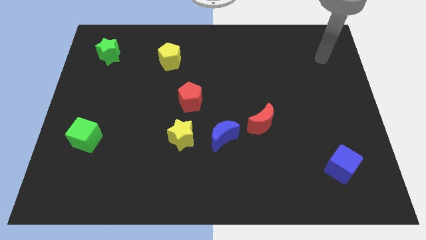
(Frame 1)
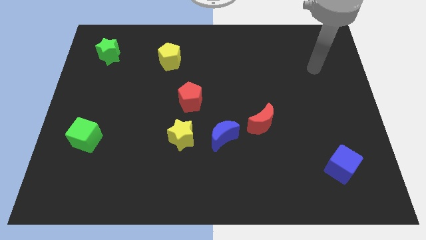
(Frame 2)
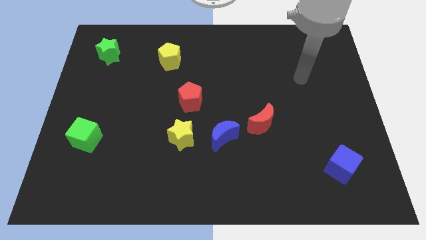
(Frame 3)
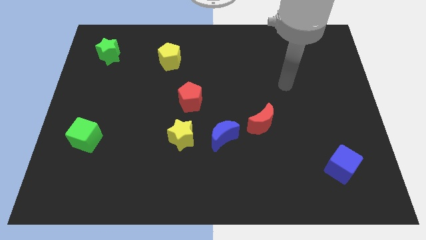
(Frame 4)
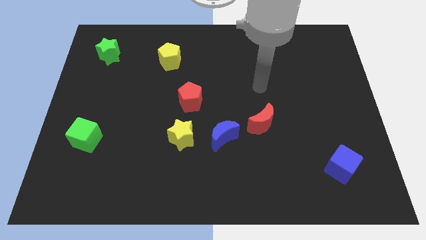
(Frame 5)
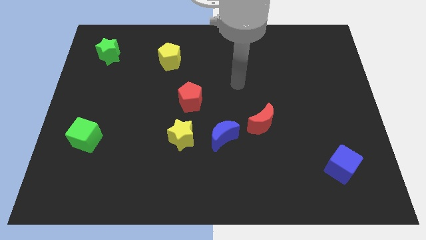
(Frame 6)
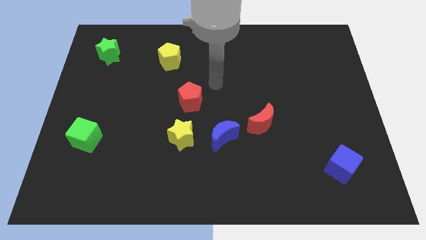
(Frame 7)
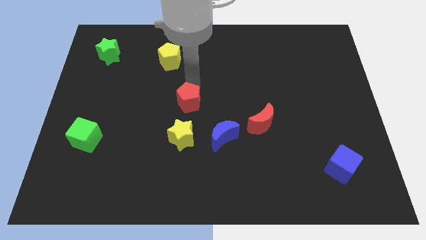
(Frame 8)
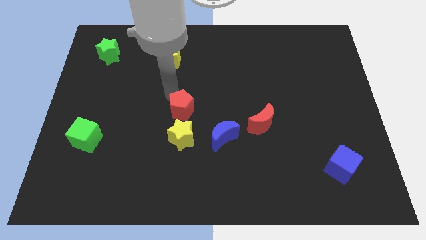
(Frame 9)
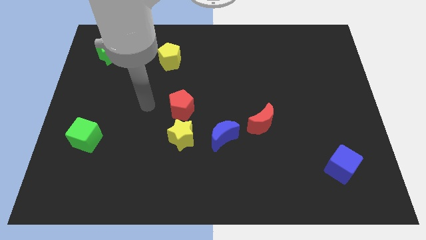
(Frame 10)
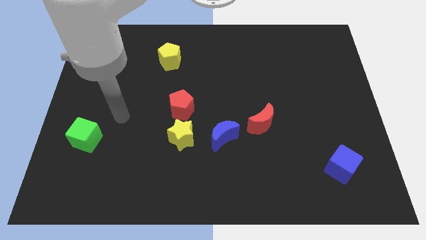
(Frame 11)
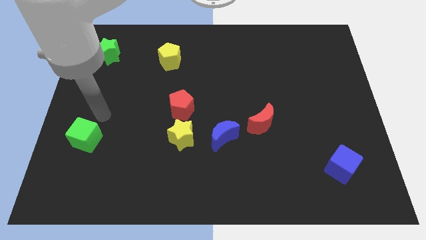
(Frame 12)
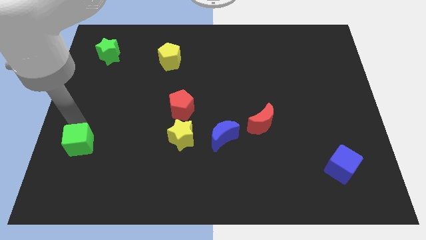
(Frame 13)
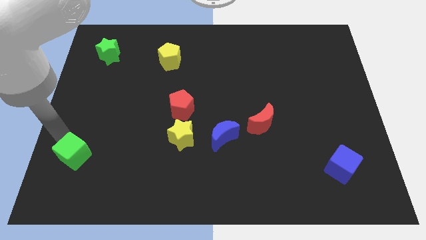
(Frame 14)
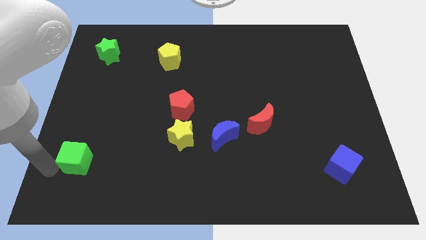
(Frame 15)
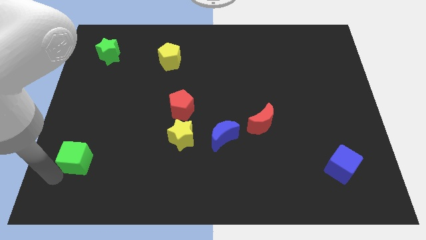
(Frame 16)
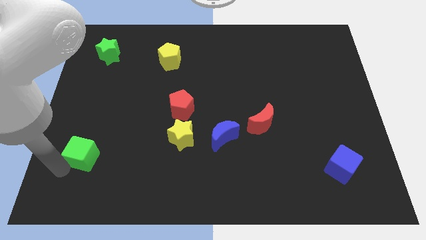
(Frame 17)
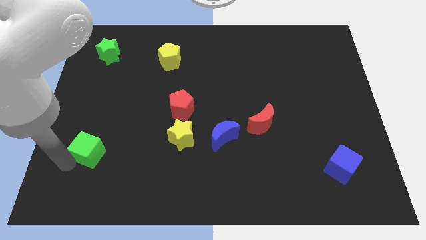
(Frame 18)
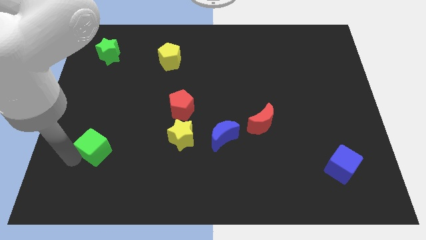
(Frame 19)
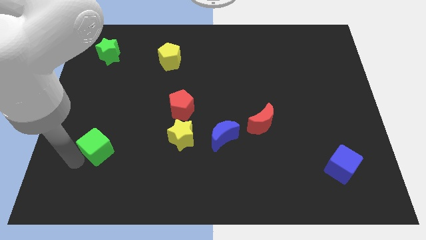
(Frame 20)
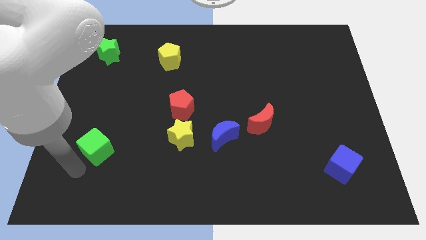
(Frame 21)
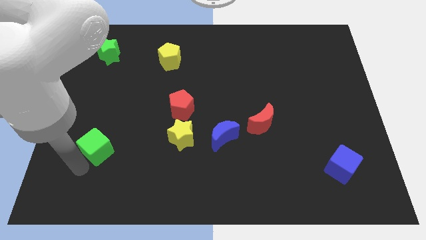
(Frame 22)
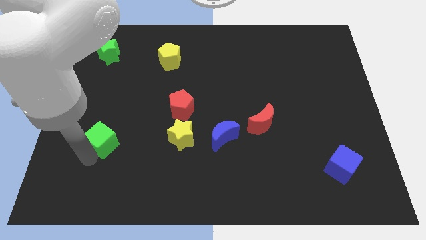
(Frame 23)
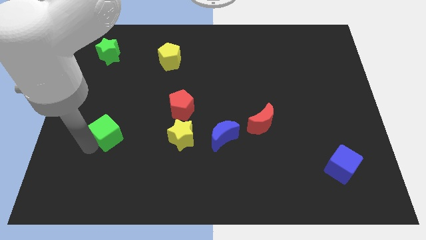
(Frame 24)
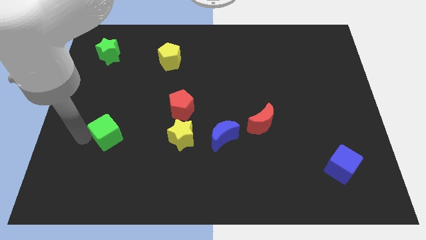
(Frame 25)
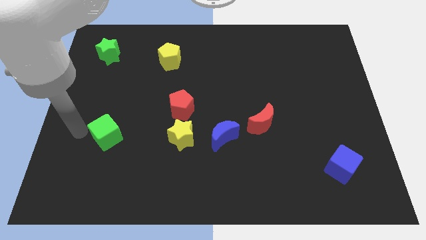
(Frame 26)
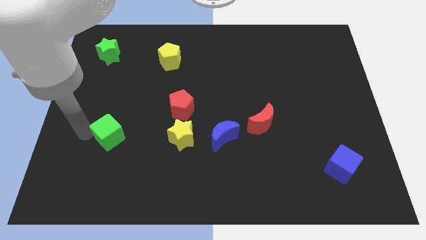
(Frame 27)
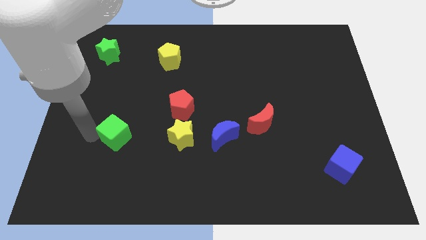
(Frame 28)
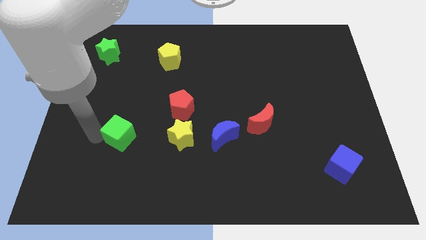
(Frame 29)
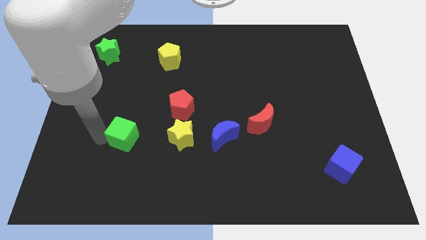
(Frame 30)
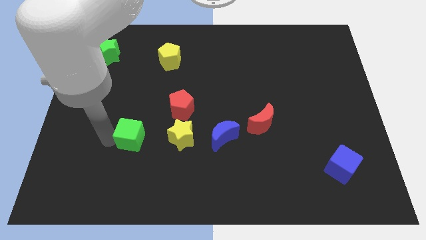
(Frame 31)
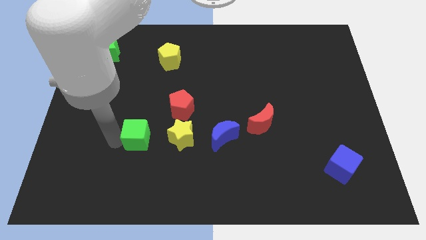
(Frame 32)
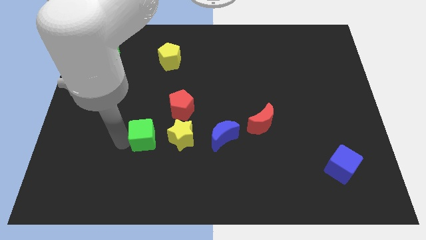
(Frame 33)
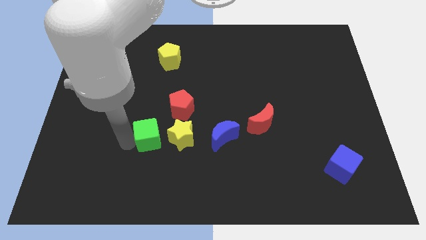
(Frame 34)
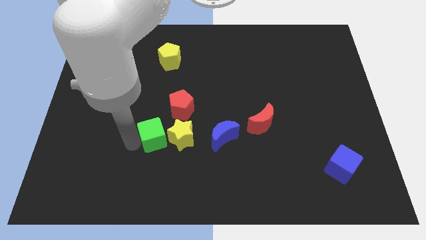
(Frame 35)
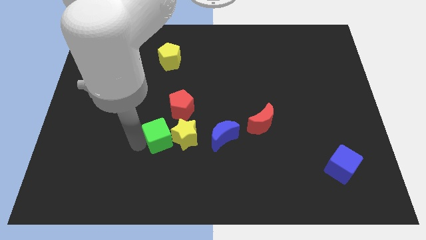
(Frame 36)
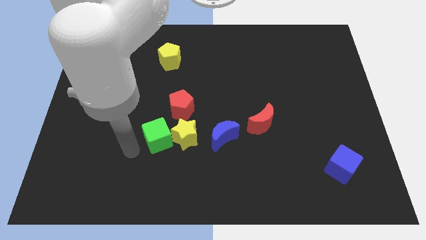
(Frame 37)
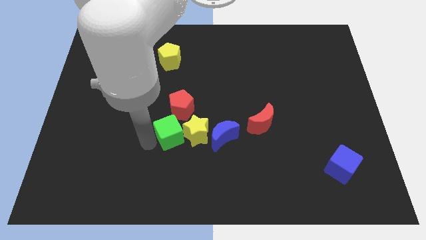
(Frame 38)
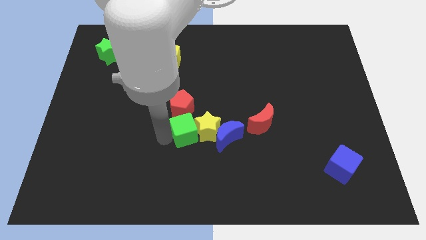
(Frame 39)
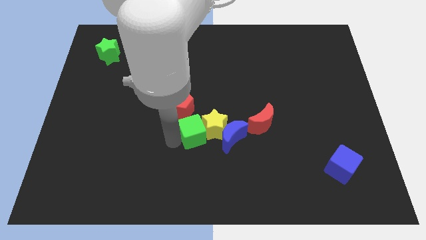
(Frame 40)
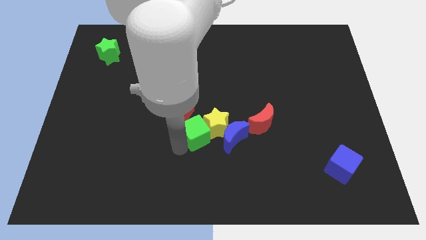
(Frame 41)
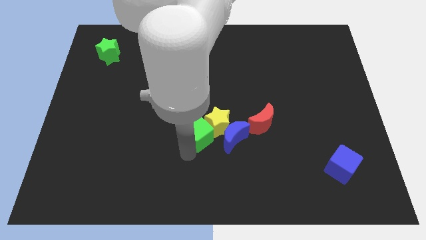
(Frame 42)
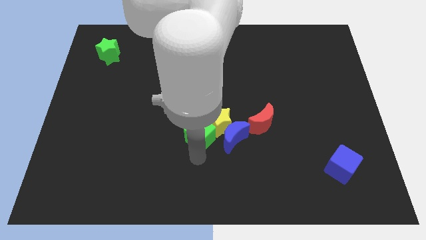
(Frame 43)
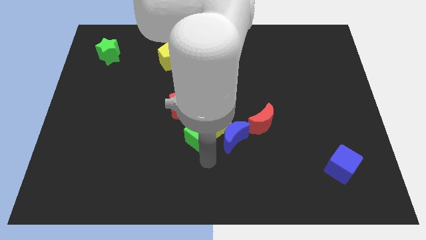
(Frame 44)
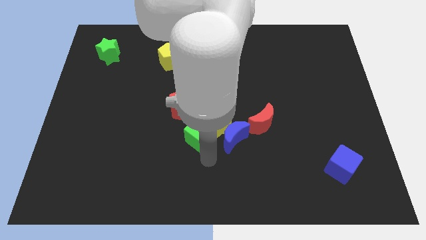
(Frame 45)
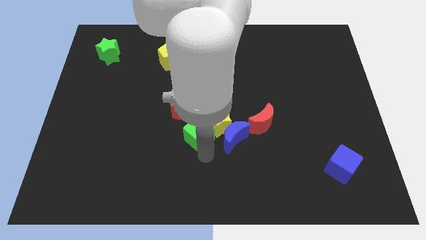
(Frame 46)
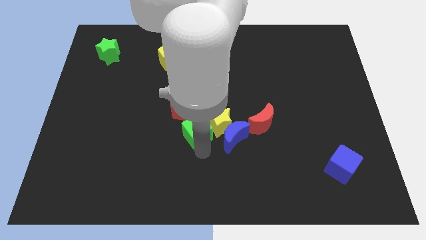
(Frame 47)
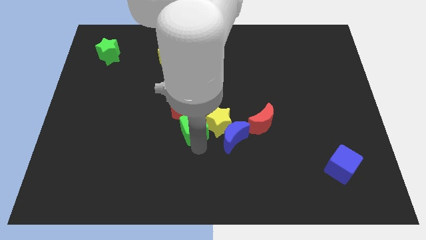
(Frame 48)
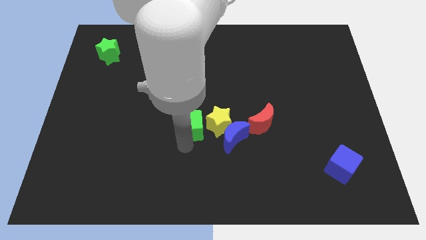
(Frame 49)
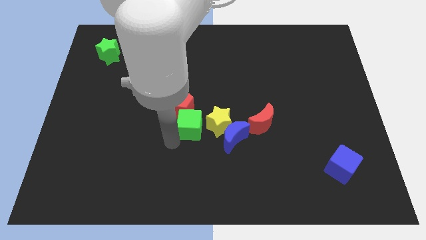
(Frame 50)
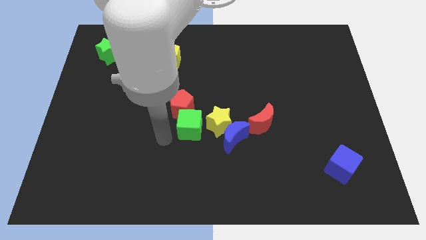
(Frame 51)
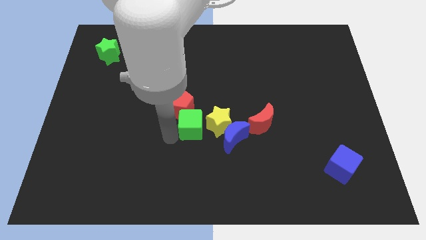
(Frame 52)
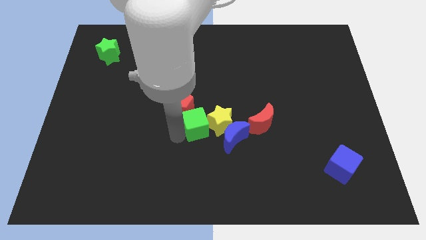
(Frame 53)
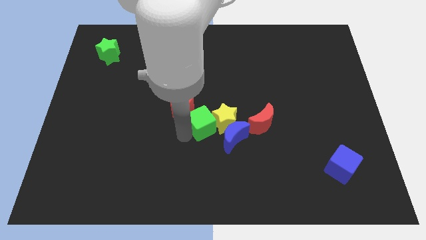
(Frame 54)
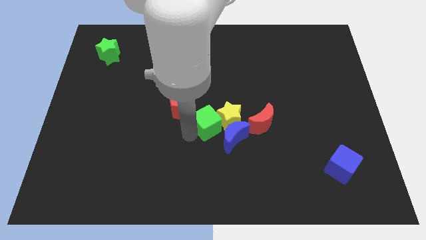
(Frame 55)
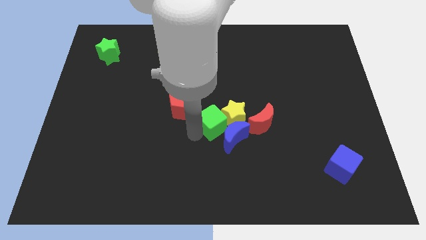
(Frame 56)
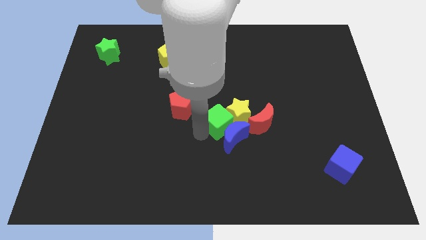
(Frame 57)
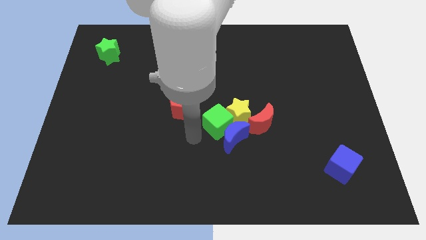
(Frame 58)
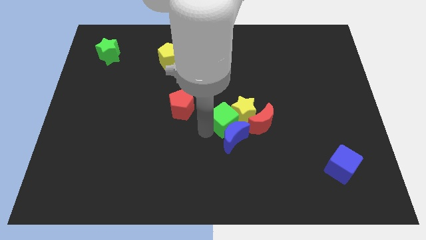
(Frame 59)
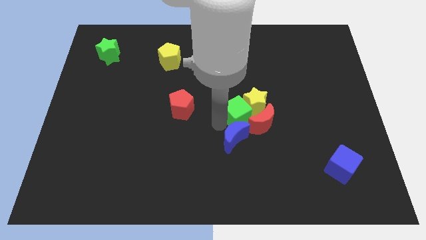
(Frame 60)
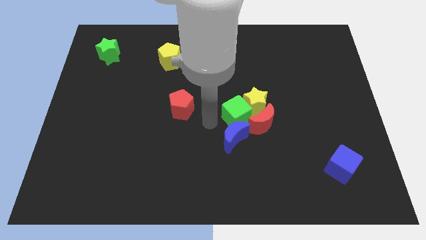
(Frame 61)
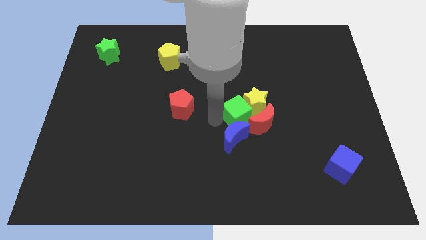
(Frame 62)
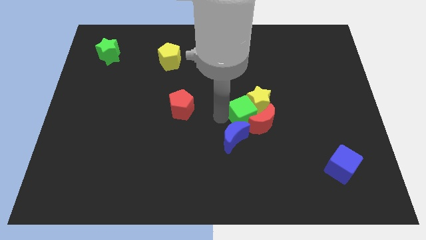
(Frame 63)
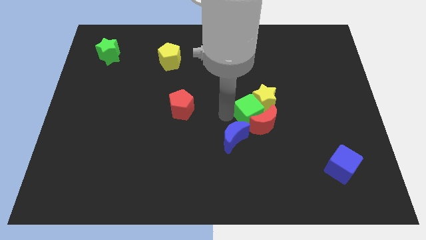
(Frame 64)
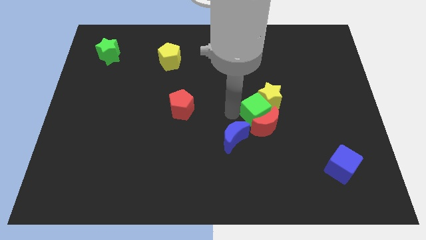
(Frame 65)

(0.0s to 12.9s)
put the green cube to the top right side of the red moon
